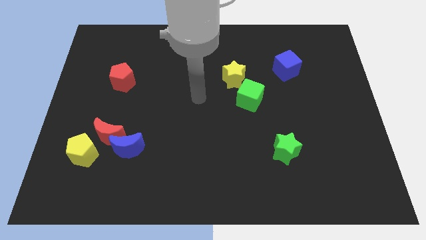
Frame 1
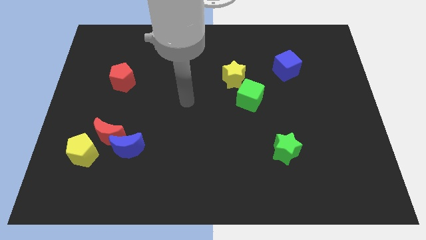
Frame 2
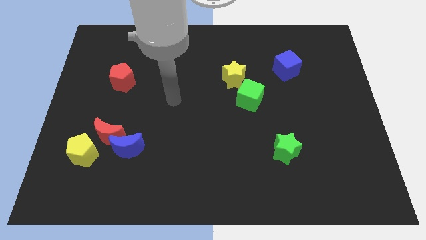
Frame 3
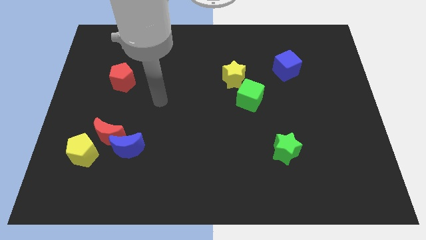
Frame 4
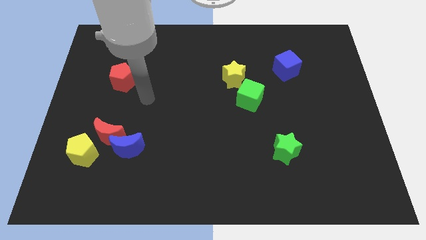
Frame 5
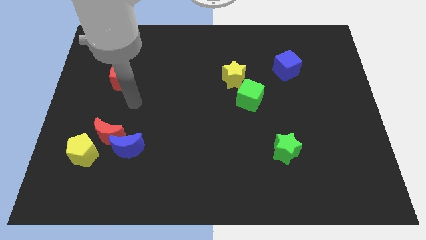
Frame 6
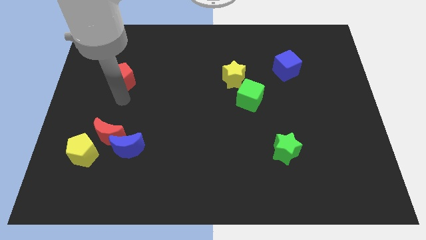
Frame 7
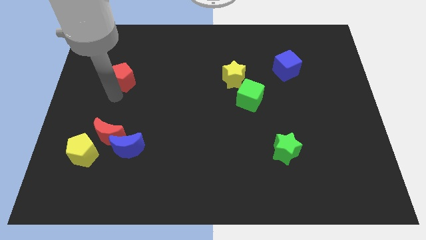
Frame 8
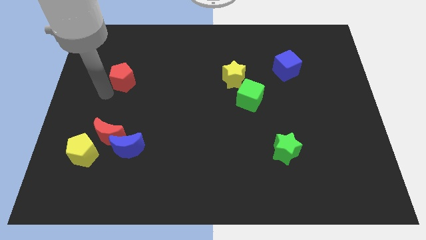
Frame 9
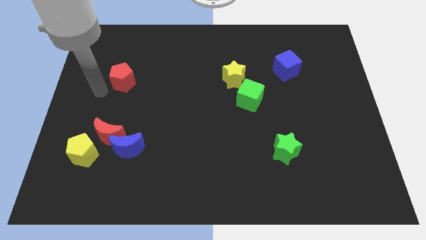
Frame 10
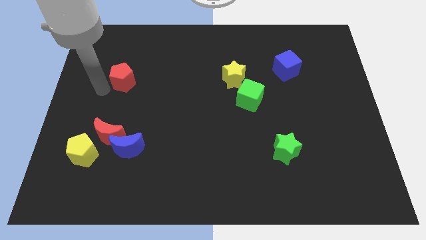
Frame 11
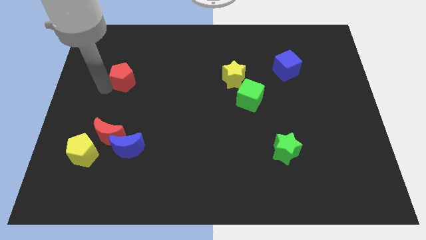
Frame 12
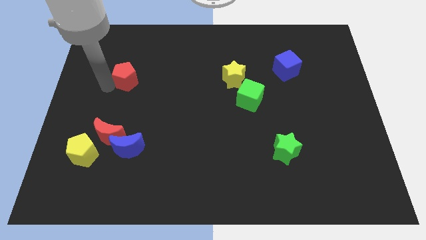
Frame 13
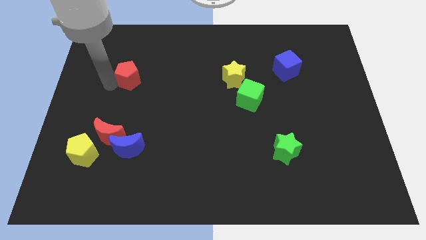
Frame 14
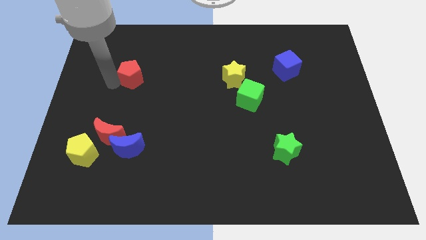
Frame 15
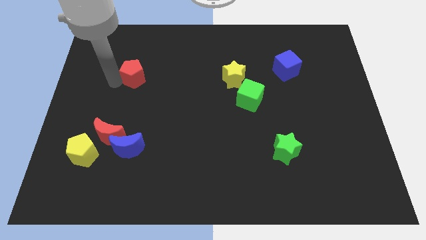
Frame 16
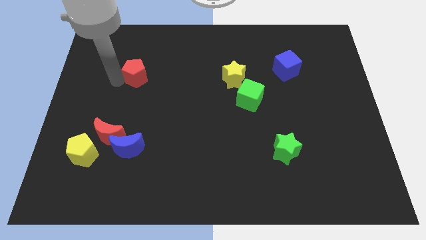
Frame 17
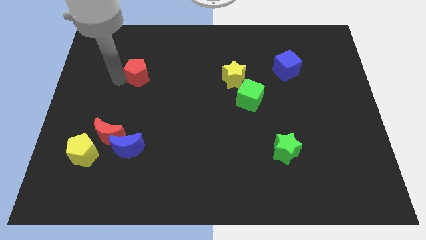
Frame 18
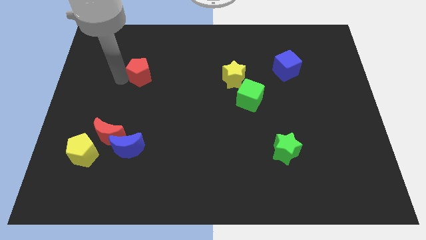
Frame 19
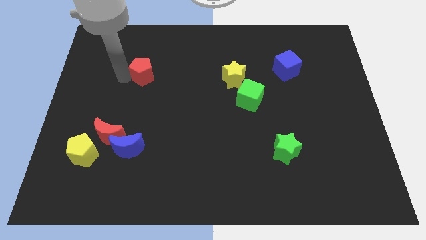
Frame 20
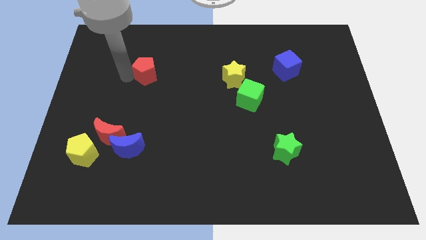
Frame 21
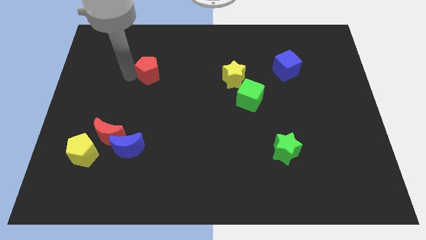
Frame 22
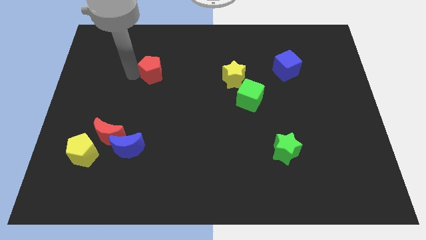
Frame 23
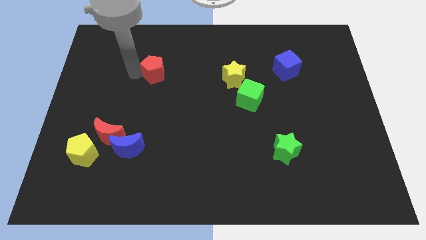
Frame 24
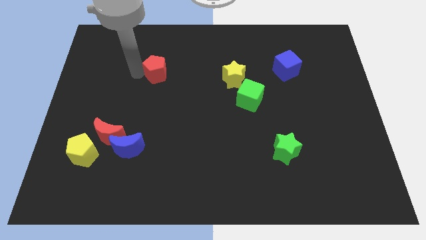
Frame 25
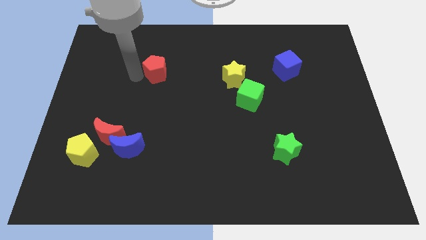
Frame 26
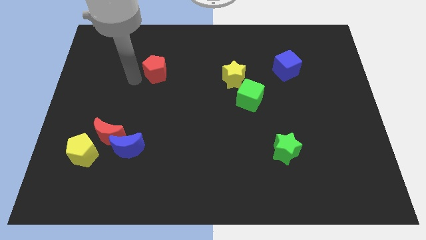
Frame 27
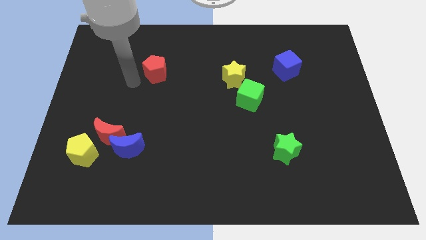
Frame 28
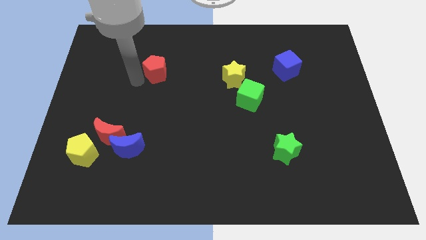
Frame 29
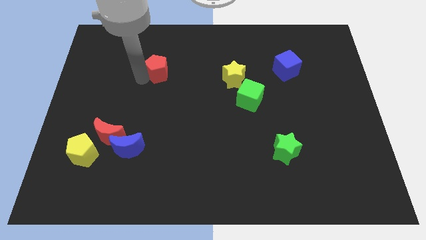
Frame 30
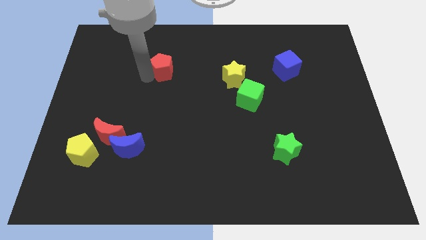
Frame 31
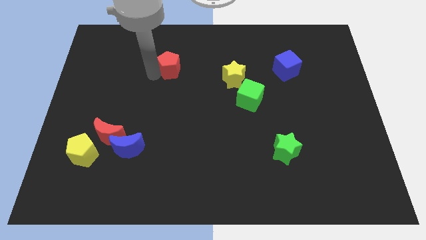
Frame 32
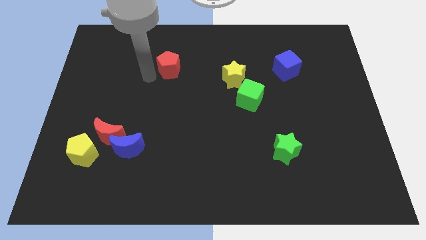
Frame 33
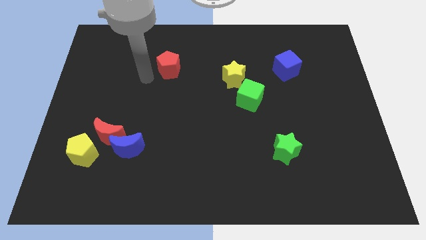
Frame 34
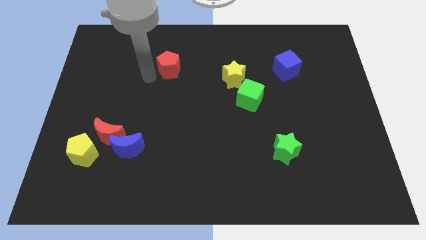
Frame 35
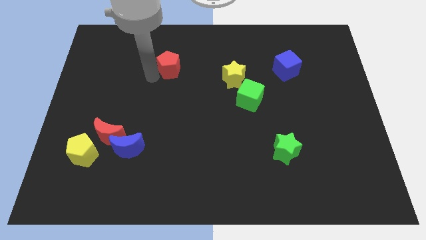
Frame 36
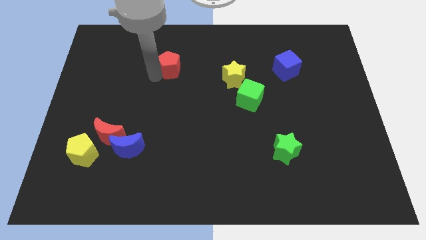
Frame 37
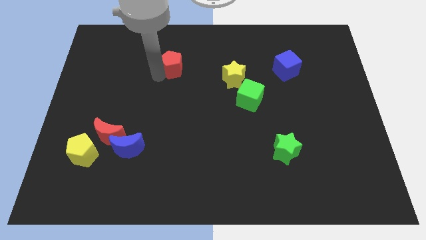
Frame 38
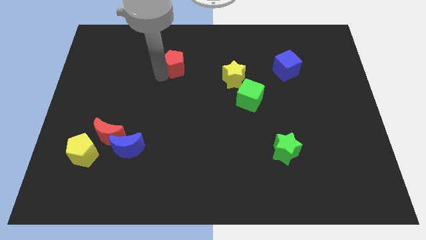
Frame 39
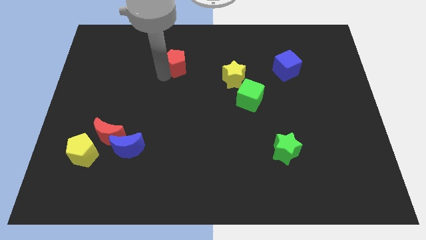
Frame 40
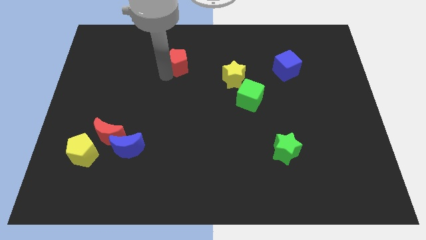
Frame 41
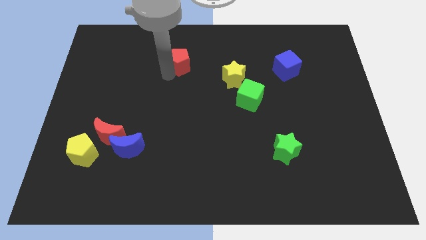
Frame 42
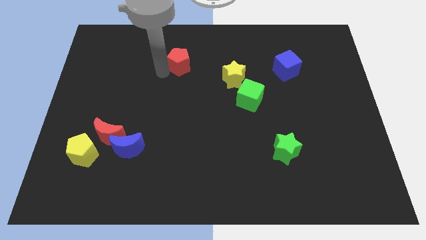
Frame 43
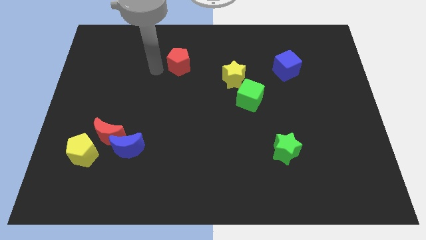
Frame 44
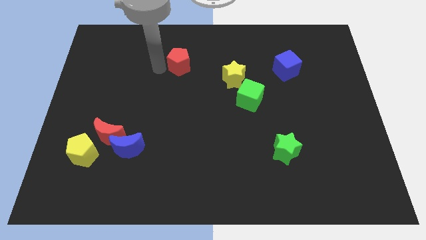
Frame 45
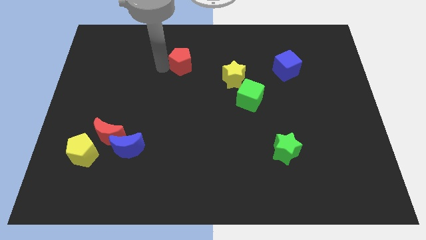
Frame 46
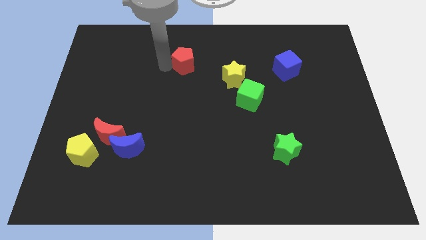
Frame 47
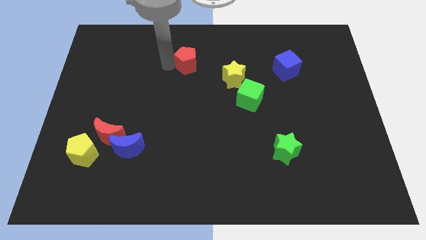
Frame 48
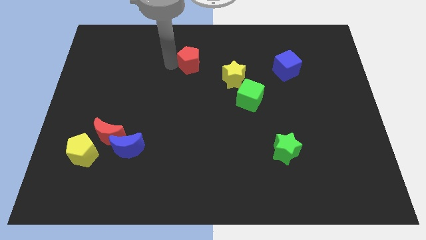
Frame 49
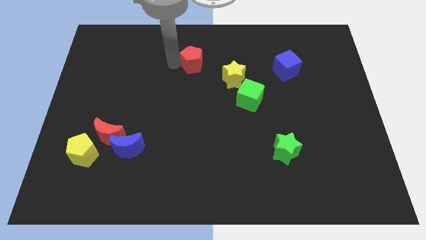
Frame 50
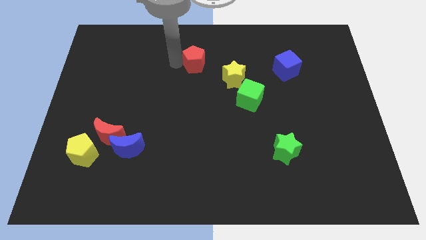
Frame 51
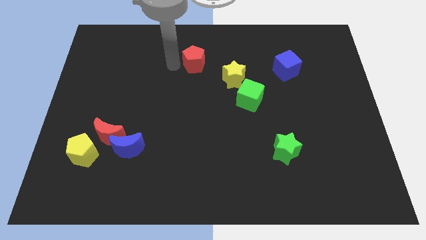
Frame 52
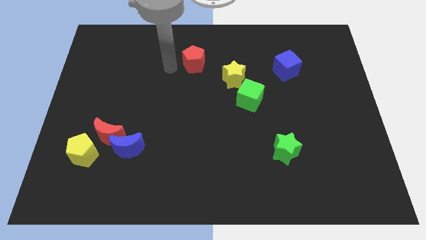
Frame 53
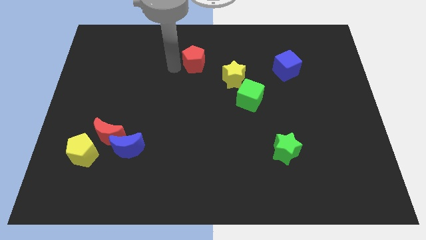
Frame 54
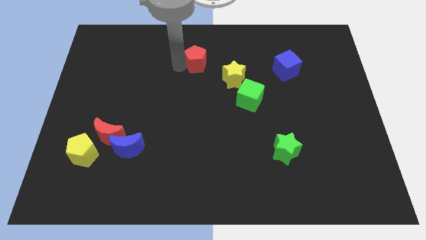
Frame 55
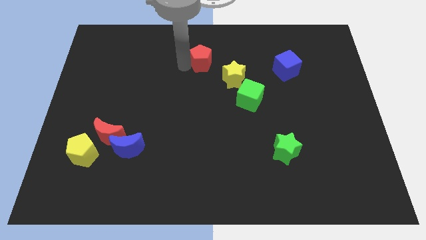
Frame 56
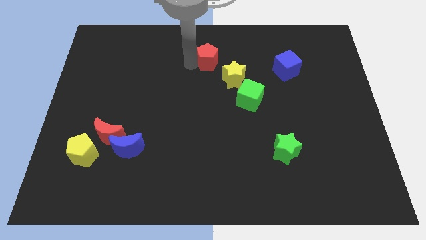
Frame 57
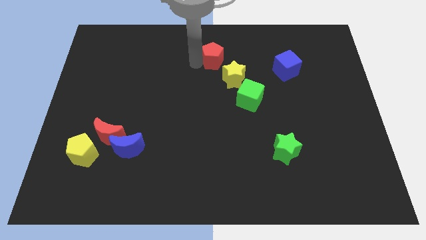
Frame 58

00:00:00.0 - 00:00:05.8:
slide the red pentagon right

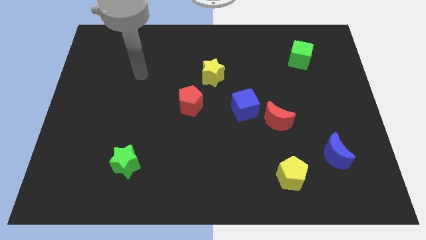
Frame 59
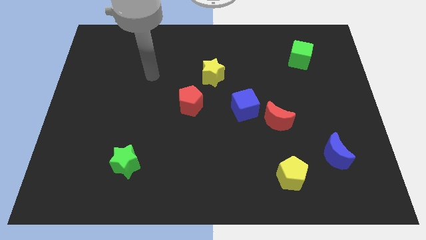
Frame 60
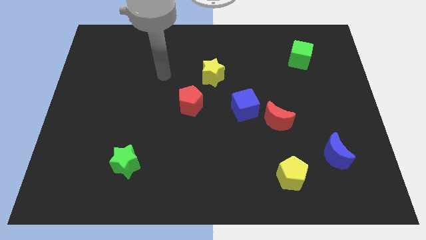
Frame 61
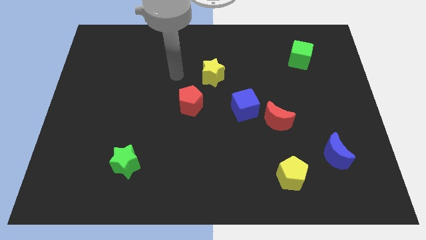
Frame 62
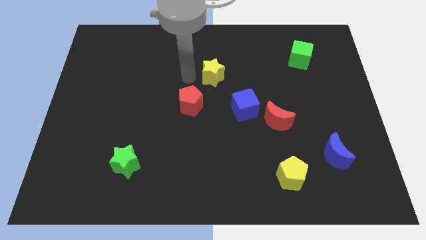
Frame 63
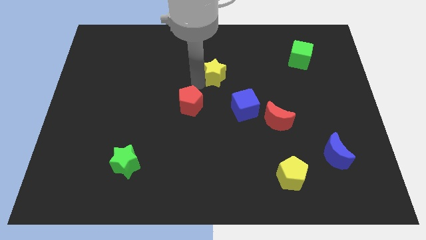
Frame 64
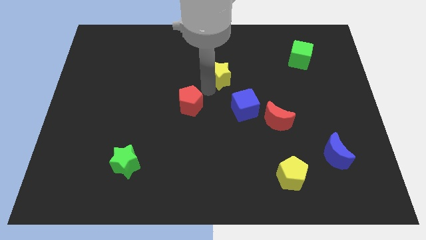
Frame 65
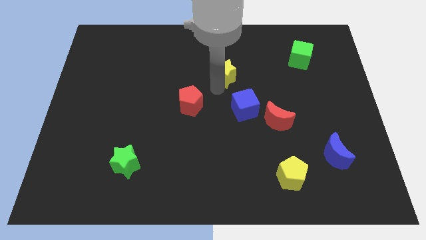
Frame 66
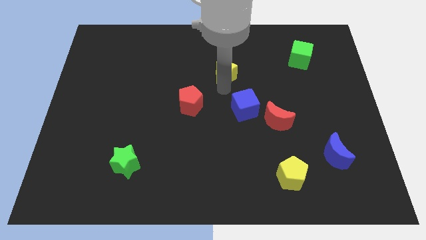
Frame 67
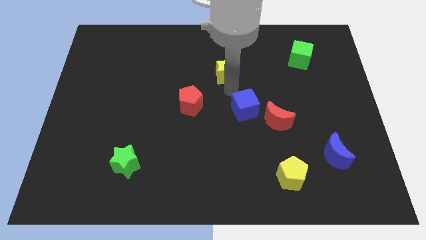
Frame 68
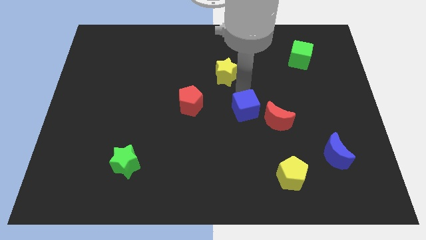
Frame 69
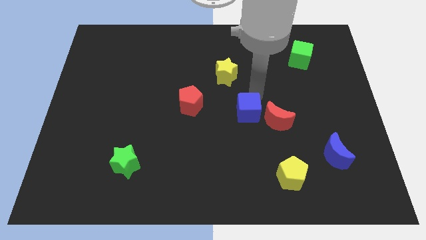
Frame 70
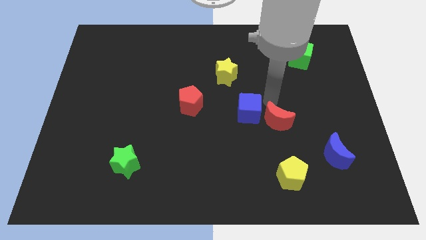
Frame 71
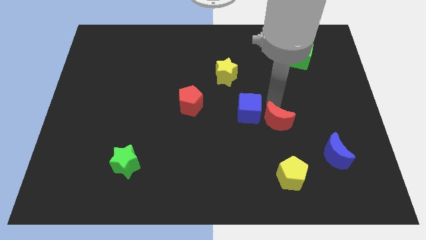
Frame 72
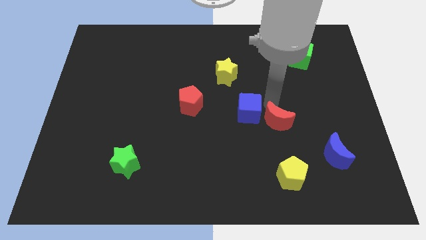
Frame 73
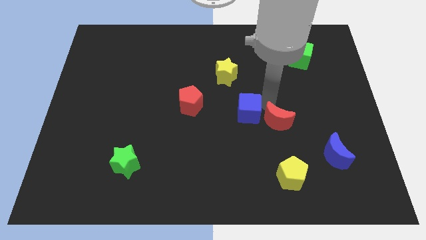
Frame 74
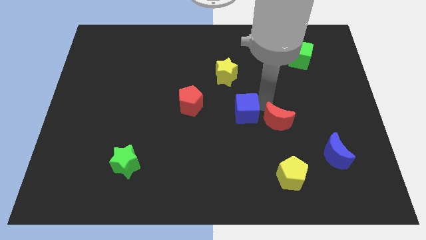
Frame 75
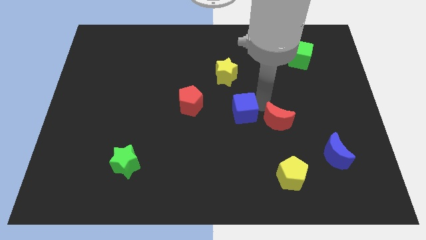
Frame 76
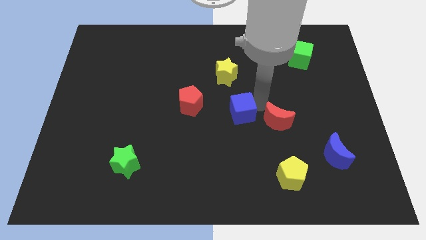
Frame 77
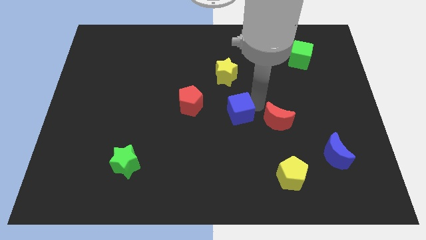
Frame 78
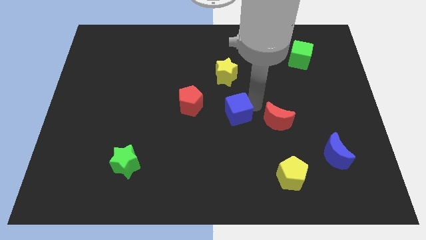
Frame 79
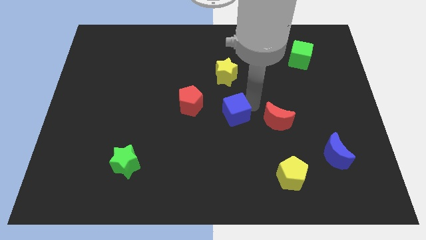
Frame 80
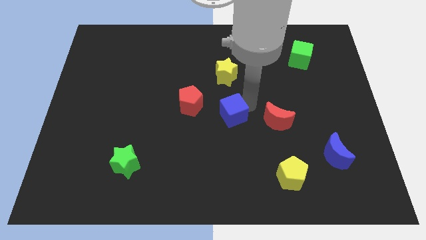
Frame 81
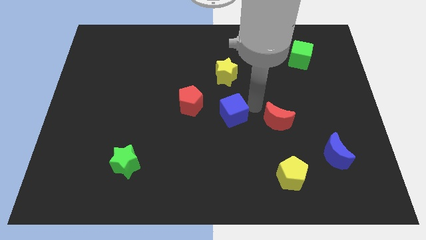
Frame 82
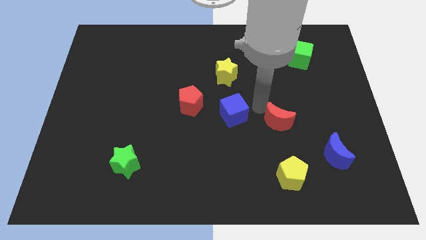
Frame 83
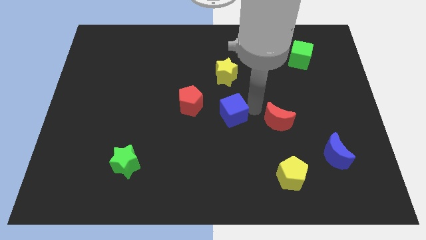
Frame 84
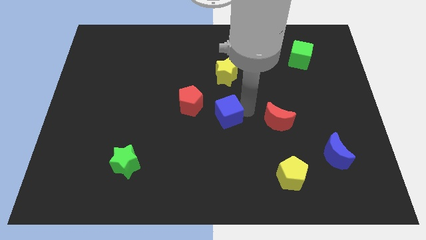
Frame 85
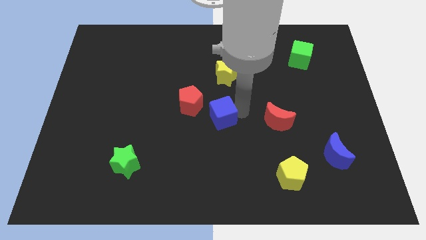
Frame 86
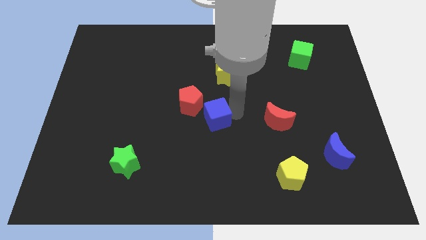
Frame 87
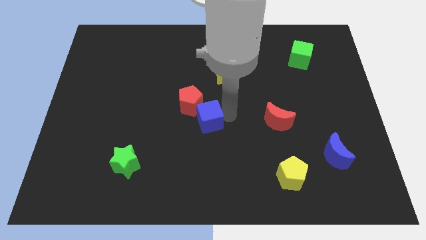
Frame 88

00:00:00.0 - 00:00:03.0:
slightly push the blue cube left
